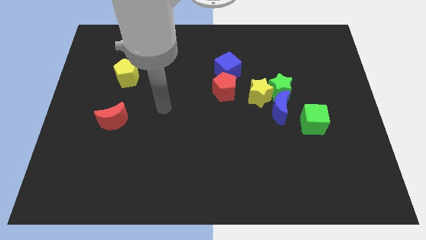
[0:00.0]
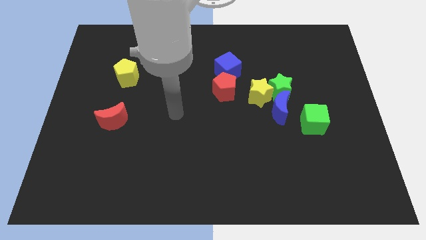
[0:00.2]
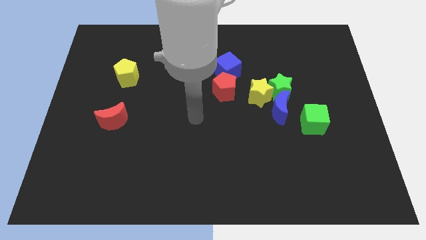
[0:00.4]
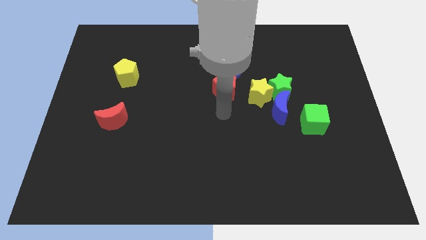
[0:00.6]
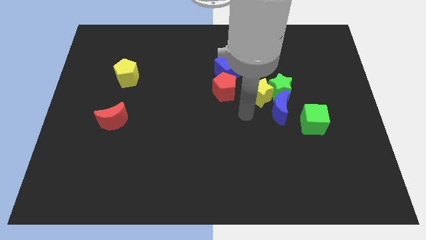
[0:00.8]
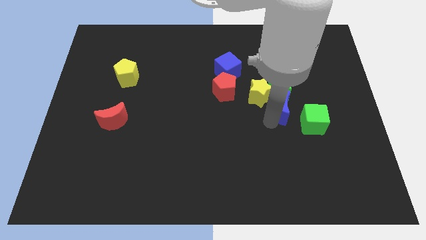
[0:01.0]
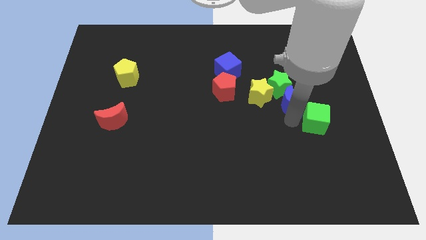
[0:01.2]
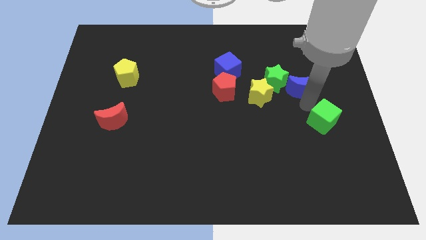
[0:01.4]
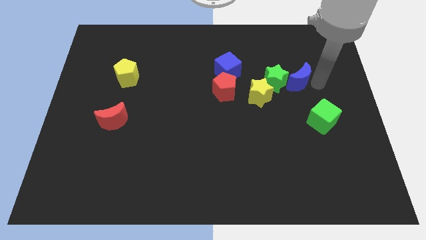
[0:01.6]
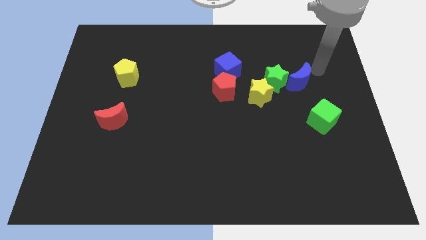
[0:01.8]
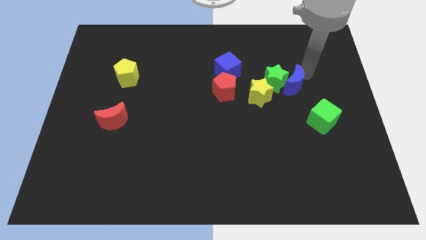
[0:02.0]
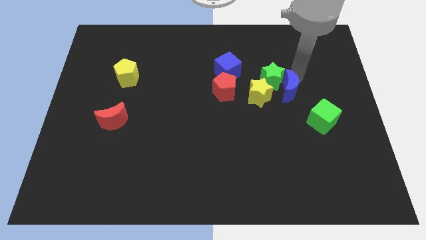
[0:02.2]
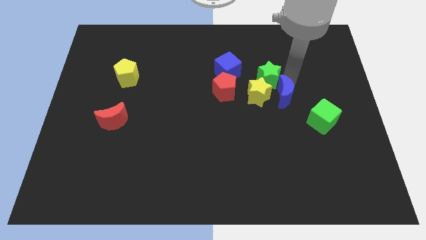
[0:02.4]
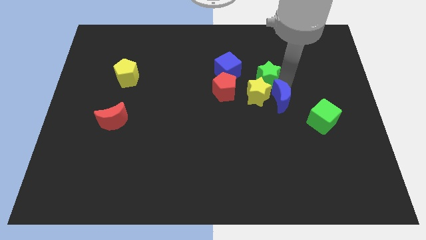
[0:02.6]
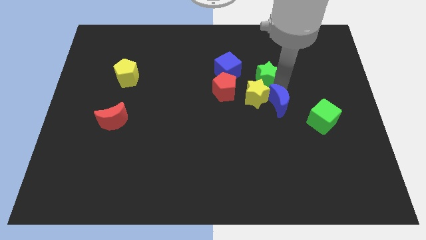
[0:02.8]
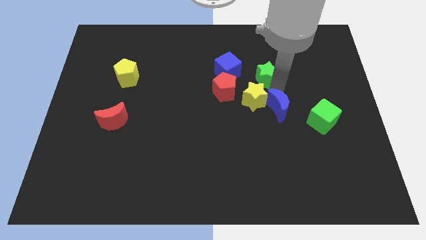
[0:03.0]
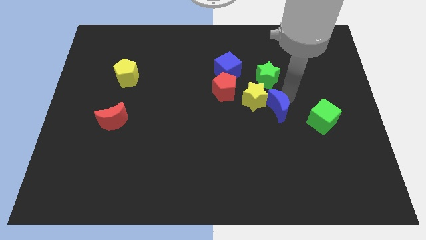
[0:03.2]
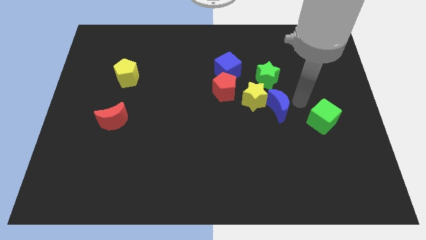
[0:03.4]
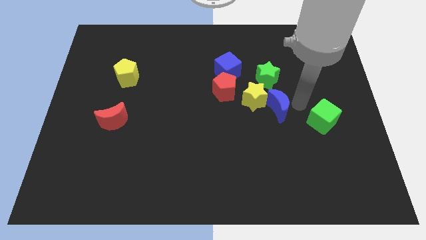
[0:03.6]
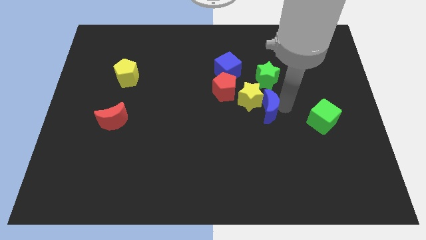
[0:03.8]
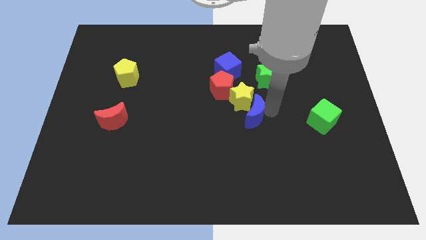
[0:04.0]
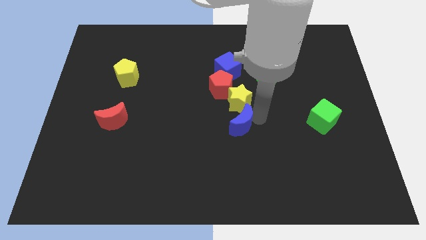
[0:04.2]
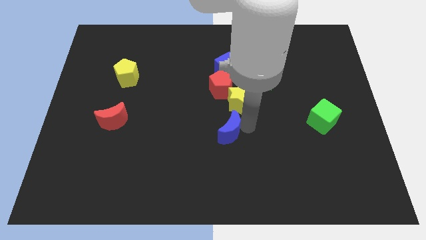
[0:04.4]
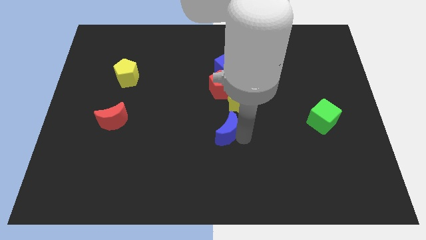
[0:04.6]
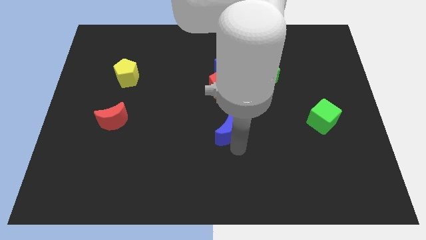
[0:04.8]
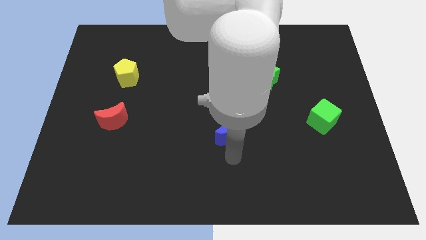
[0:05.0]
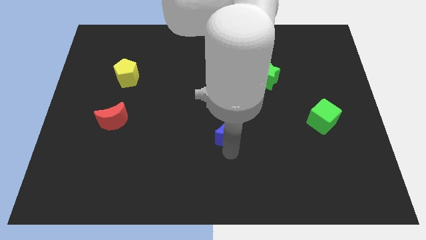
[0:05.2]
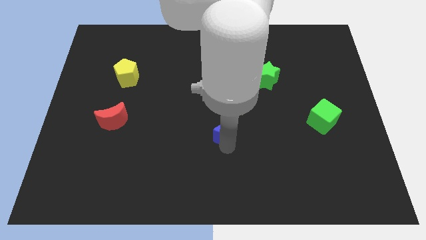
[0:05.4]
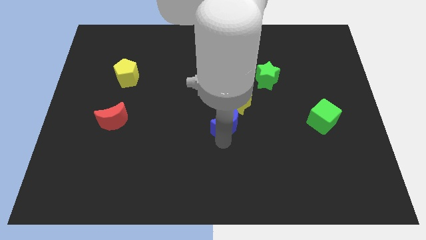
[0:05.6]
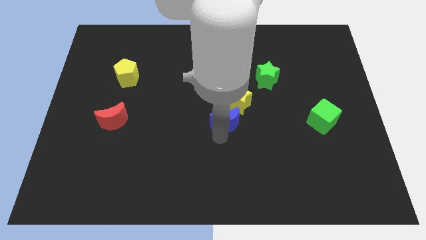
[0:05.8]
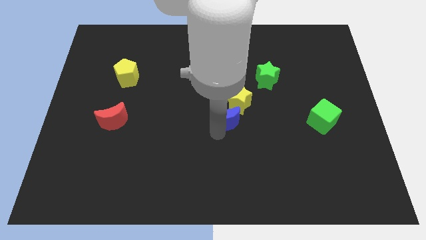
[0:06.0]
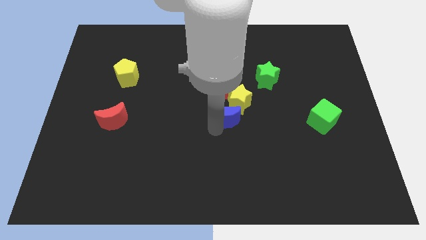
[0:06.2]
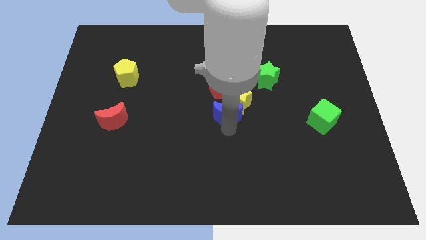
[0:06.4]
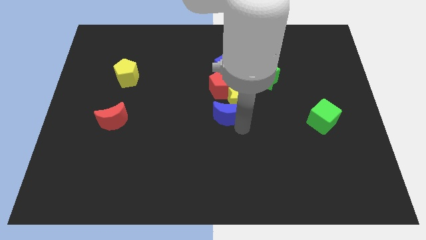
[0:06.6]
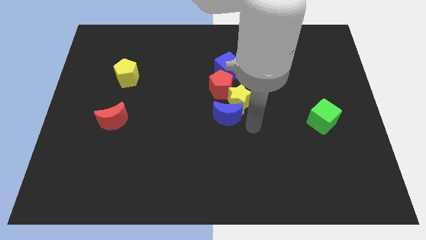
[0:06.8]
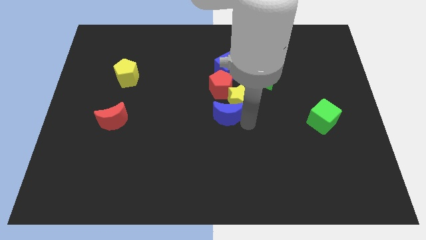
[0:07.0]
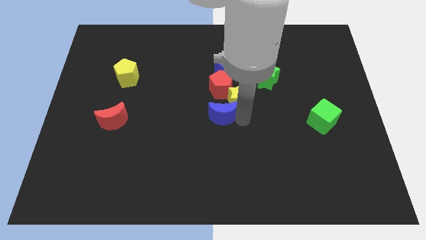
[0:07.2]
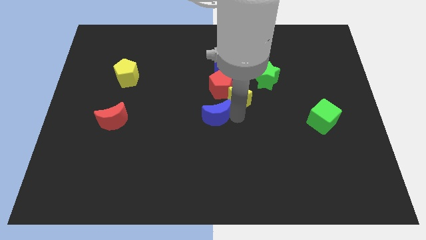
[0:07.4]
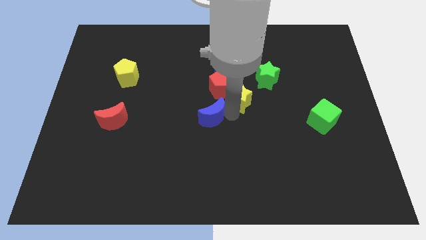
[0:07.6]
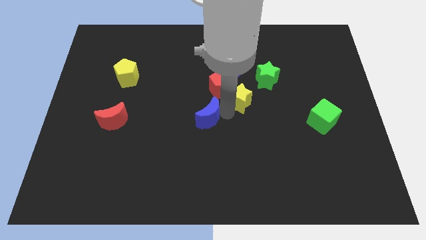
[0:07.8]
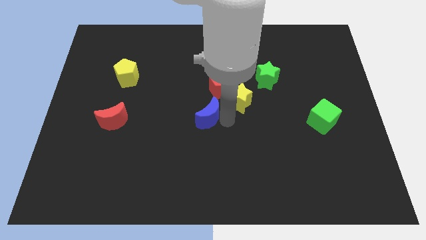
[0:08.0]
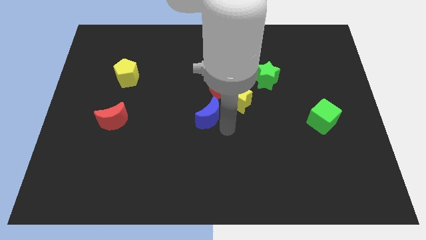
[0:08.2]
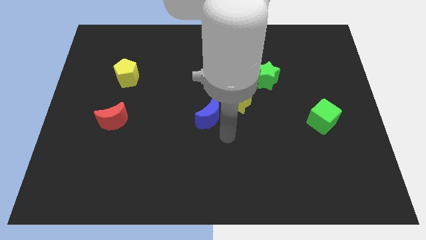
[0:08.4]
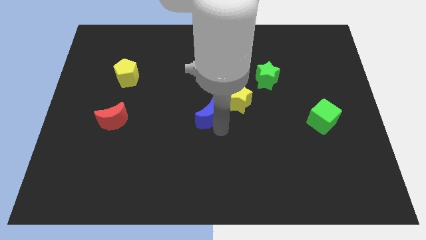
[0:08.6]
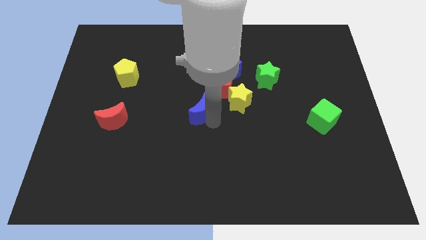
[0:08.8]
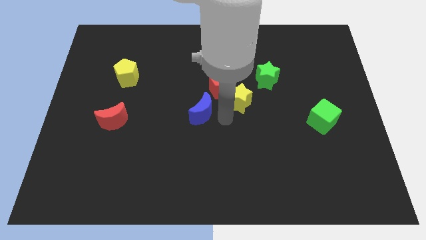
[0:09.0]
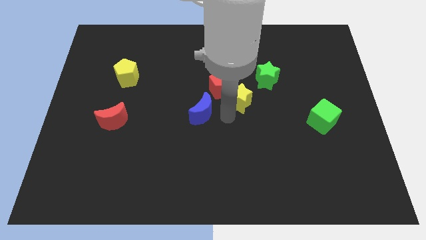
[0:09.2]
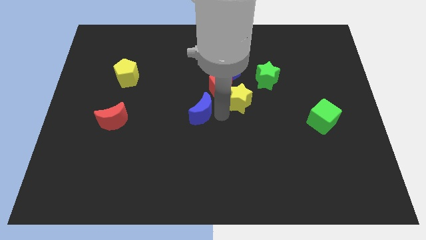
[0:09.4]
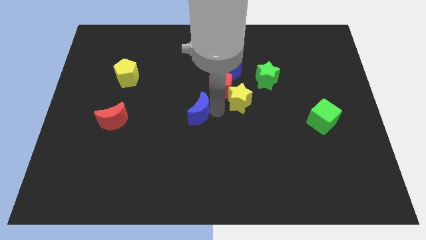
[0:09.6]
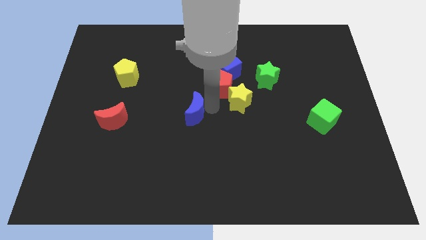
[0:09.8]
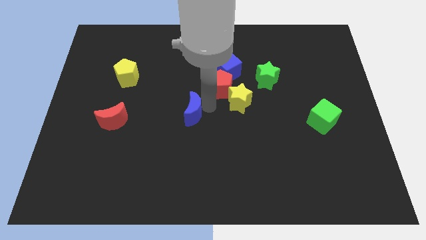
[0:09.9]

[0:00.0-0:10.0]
slide the blue moon left

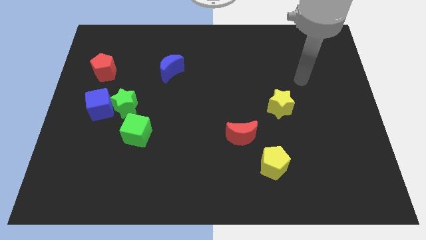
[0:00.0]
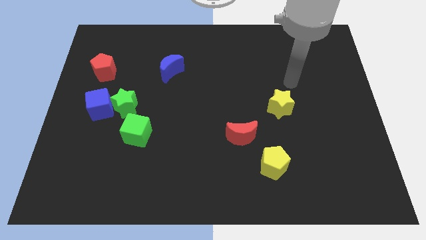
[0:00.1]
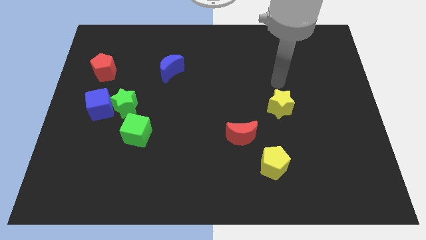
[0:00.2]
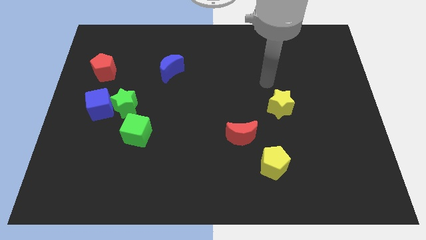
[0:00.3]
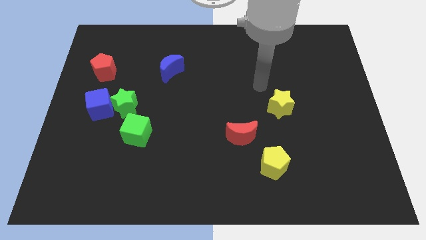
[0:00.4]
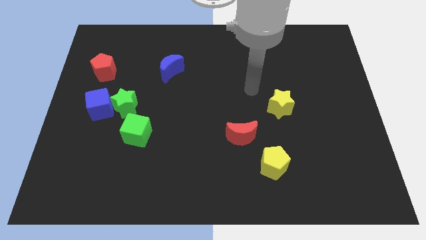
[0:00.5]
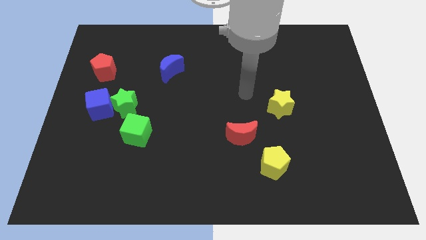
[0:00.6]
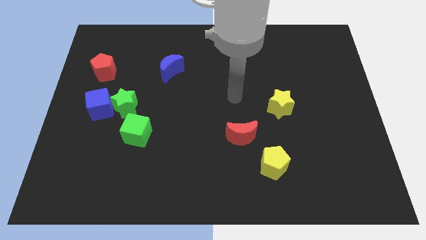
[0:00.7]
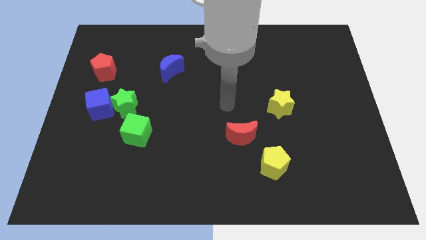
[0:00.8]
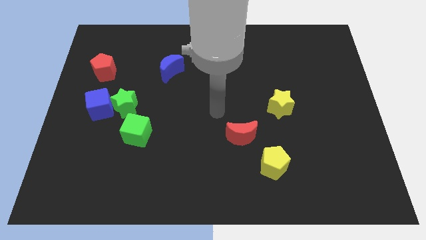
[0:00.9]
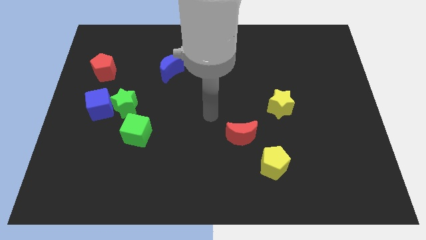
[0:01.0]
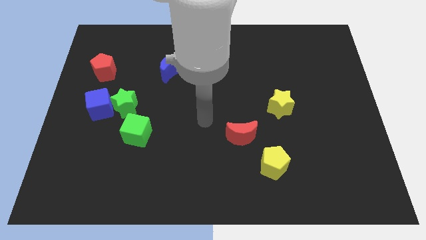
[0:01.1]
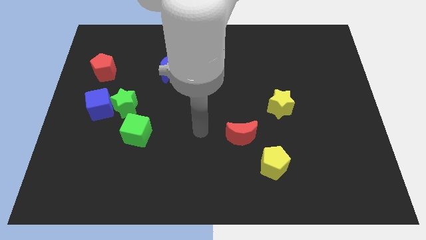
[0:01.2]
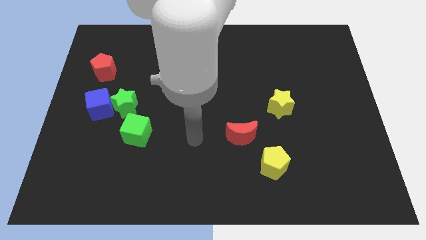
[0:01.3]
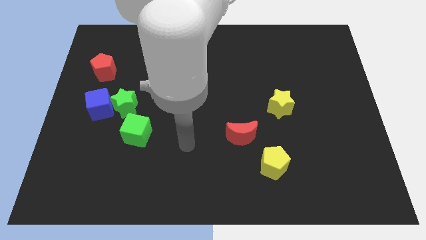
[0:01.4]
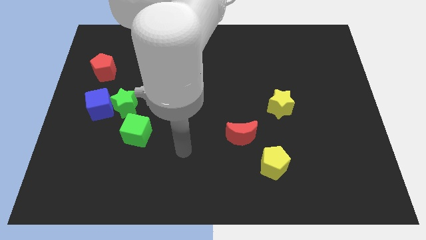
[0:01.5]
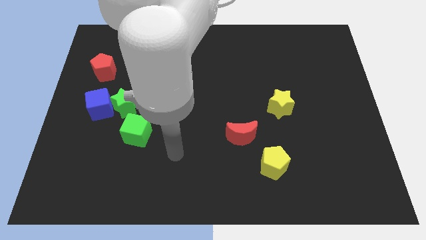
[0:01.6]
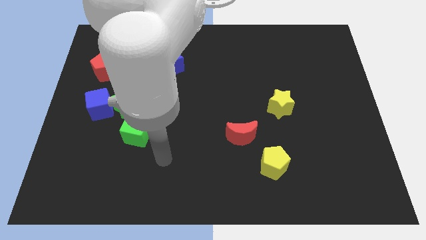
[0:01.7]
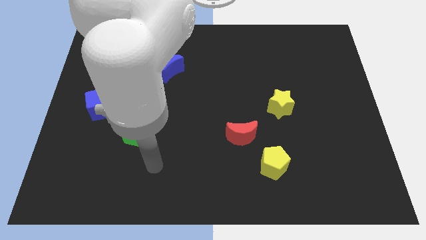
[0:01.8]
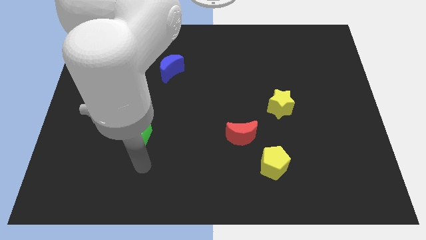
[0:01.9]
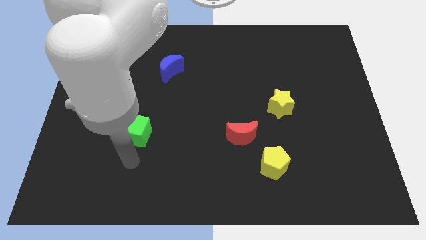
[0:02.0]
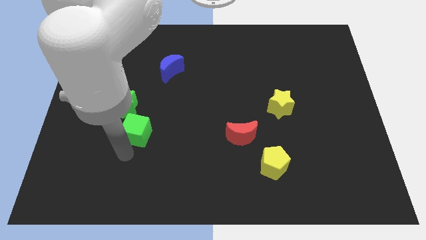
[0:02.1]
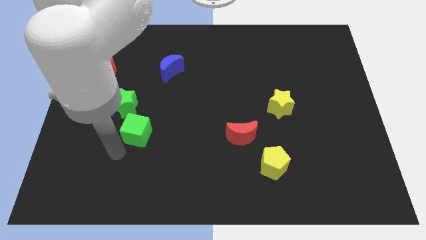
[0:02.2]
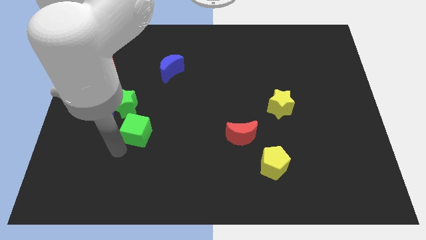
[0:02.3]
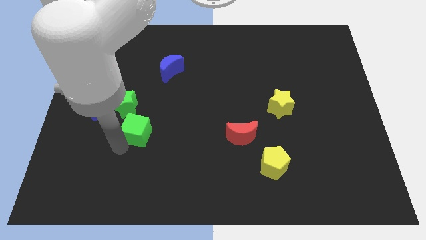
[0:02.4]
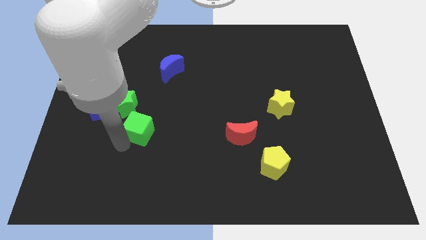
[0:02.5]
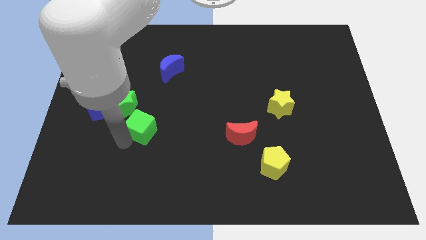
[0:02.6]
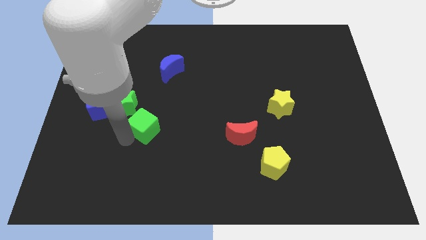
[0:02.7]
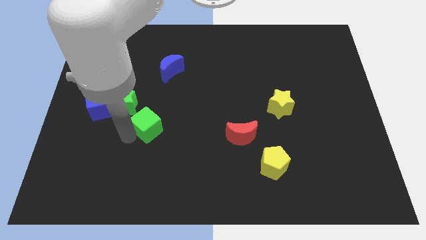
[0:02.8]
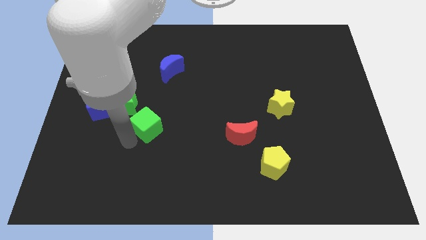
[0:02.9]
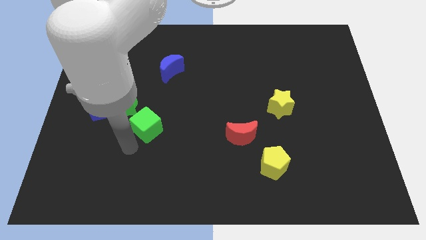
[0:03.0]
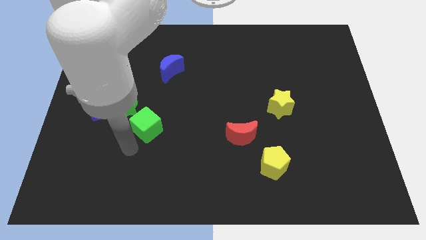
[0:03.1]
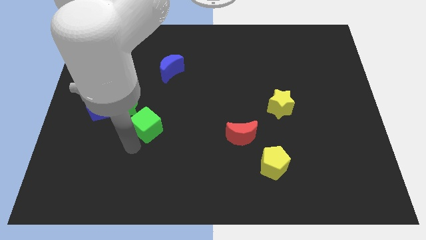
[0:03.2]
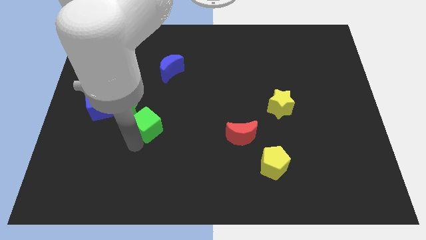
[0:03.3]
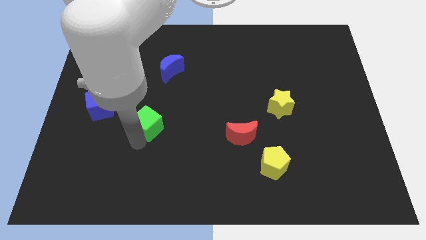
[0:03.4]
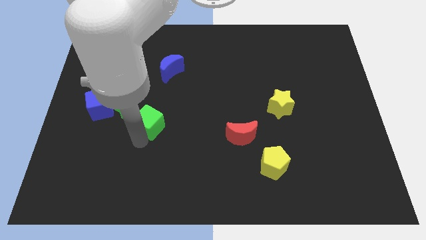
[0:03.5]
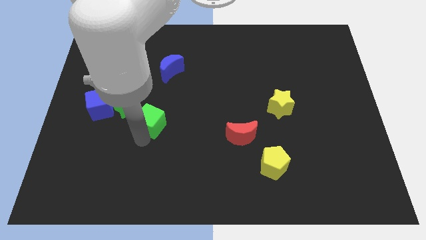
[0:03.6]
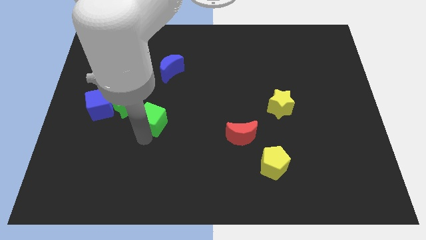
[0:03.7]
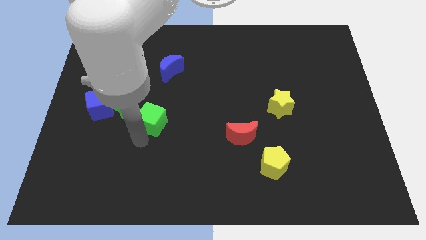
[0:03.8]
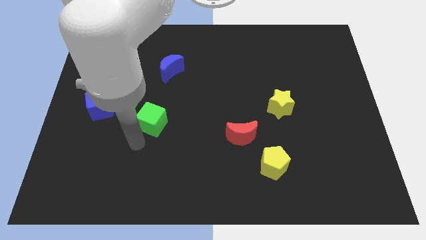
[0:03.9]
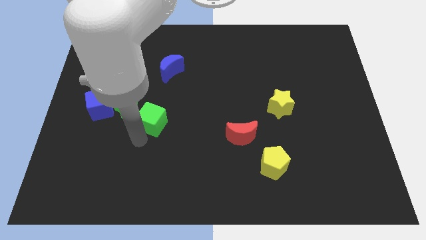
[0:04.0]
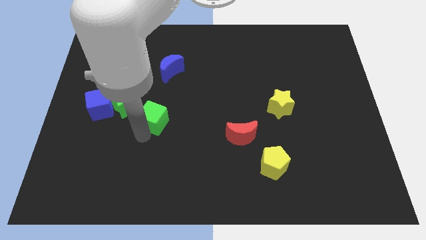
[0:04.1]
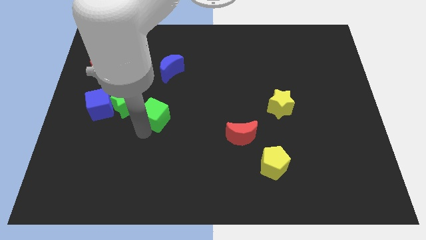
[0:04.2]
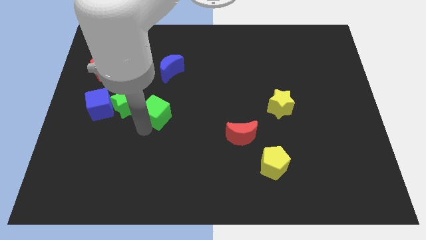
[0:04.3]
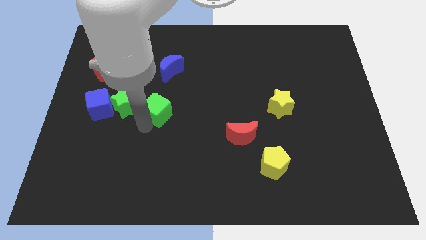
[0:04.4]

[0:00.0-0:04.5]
slightly slide the green cube upwards and to the right diagonally
